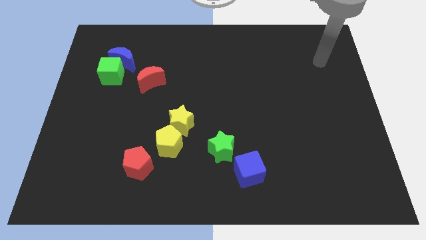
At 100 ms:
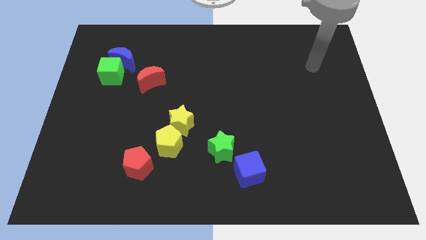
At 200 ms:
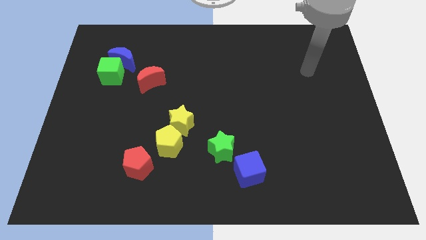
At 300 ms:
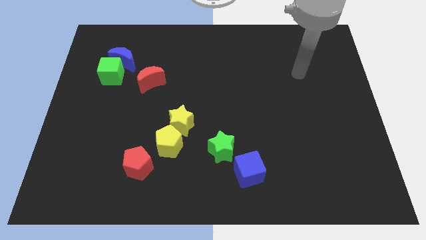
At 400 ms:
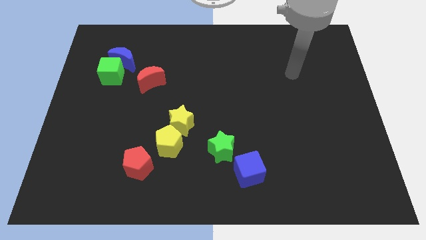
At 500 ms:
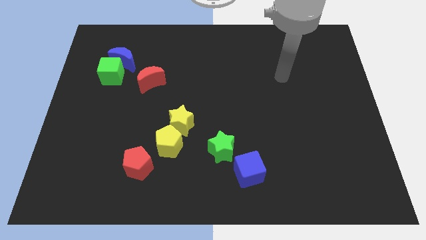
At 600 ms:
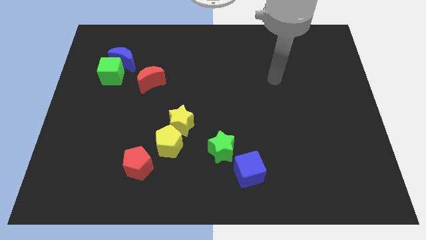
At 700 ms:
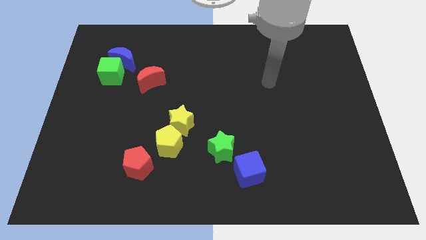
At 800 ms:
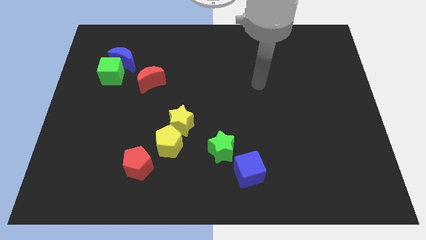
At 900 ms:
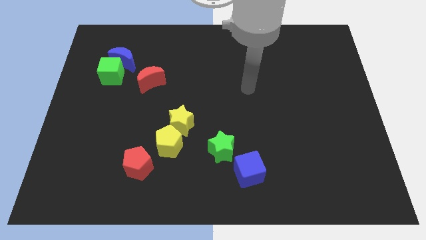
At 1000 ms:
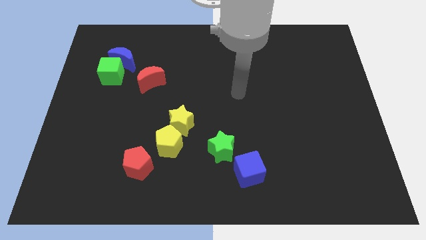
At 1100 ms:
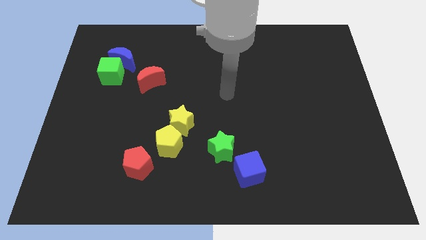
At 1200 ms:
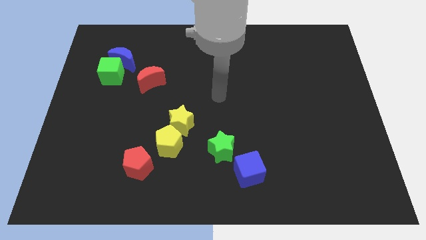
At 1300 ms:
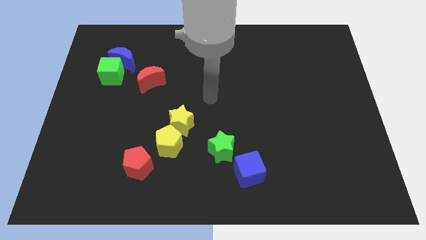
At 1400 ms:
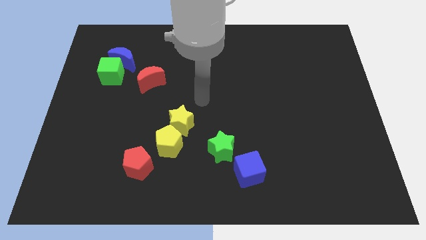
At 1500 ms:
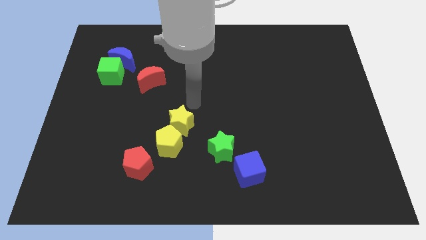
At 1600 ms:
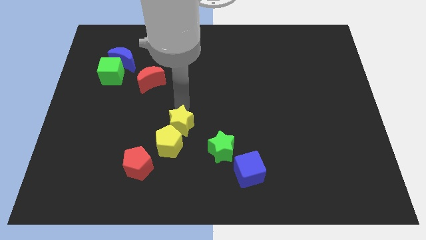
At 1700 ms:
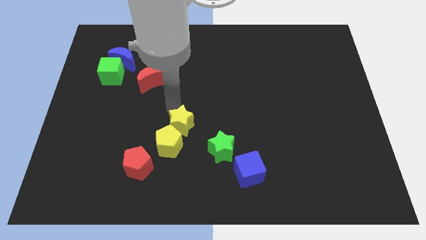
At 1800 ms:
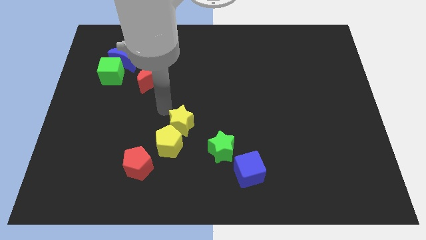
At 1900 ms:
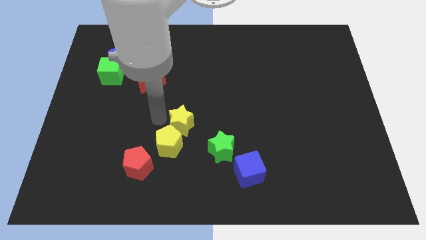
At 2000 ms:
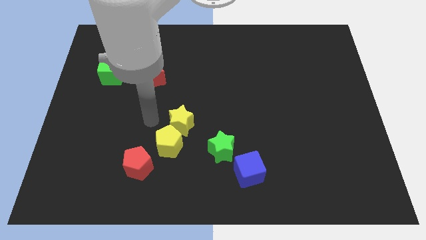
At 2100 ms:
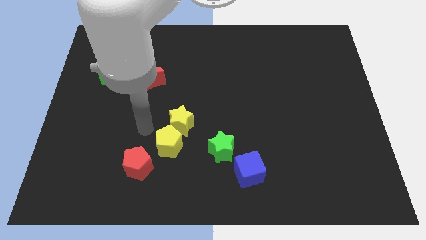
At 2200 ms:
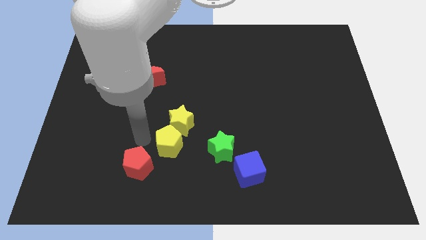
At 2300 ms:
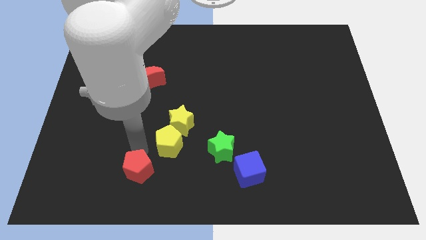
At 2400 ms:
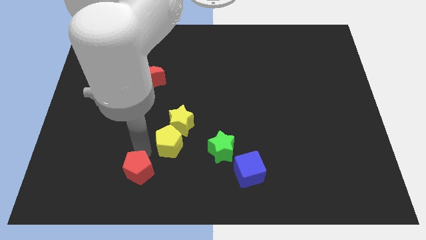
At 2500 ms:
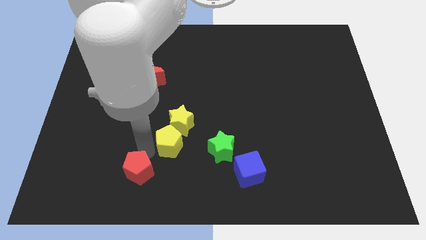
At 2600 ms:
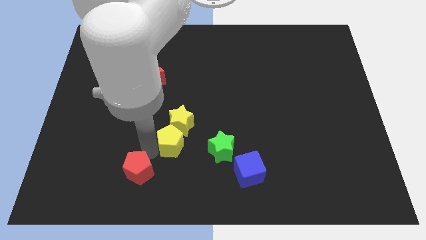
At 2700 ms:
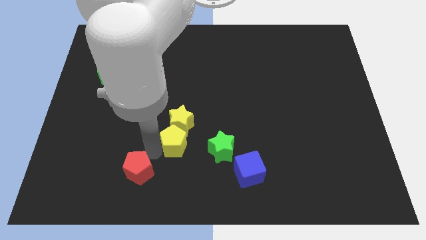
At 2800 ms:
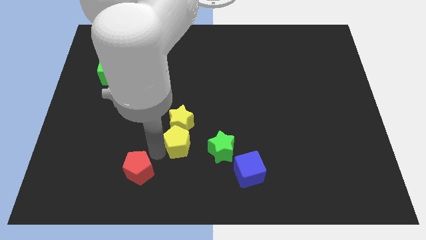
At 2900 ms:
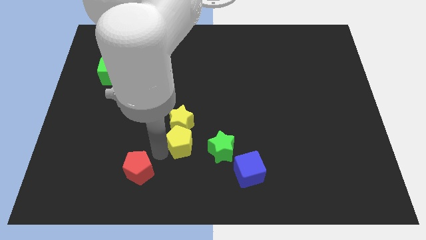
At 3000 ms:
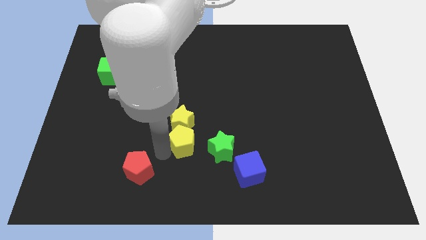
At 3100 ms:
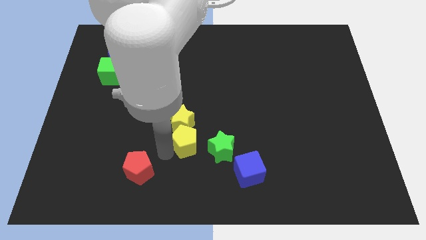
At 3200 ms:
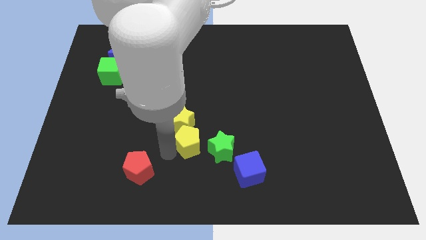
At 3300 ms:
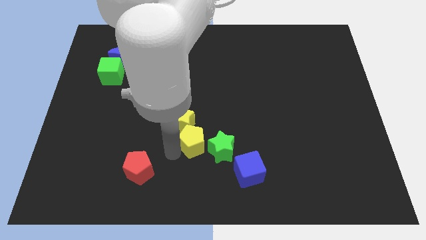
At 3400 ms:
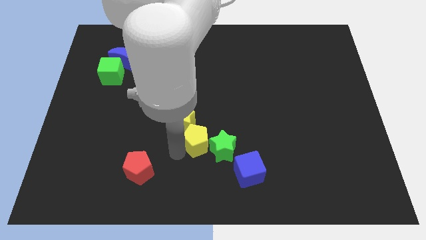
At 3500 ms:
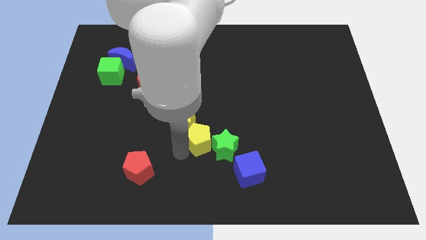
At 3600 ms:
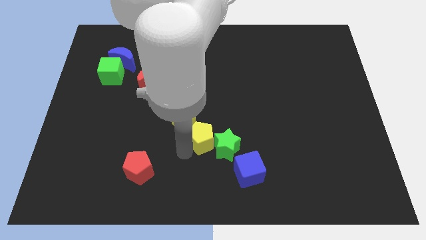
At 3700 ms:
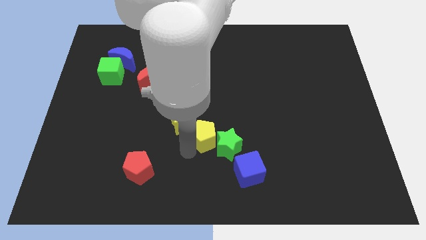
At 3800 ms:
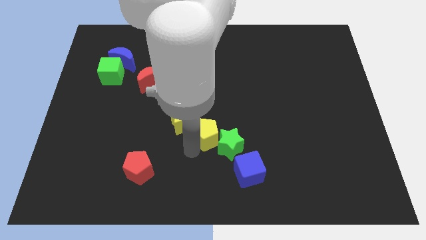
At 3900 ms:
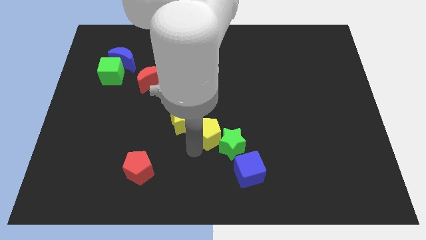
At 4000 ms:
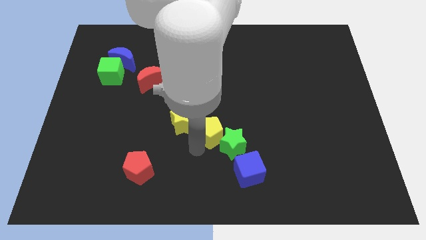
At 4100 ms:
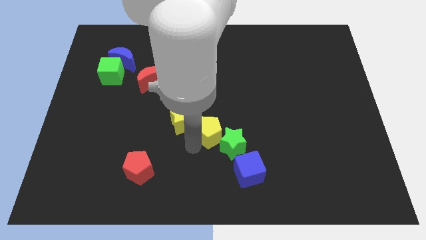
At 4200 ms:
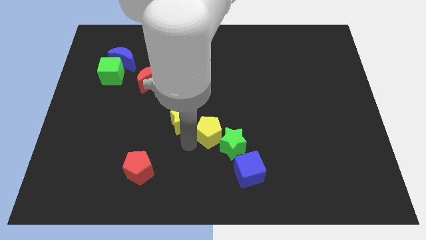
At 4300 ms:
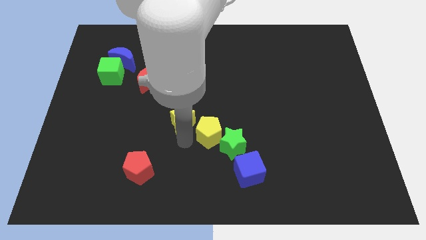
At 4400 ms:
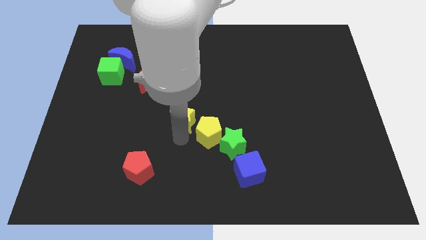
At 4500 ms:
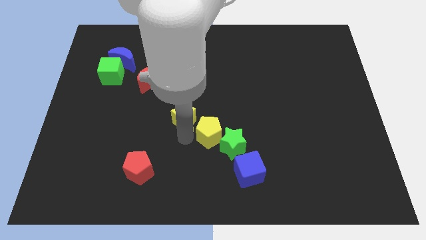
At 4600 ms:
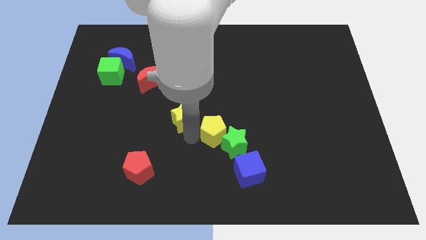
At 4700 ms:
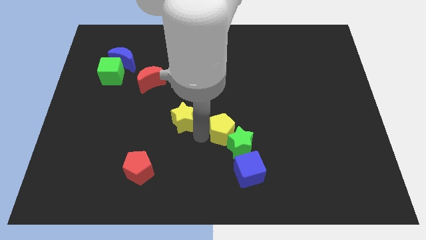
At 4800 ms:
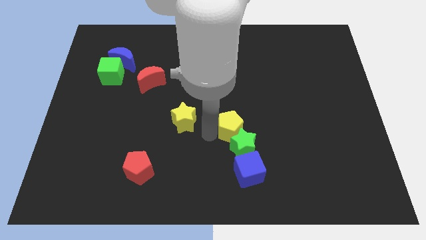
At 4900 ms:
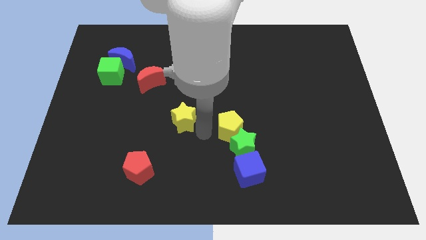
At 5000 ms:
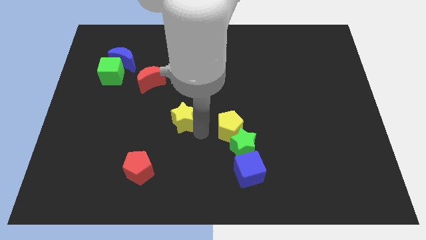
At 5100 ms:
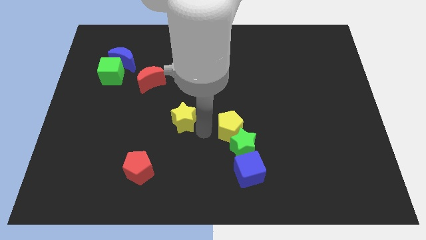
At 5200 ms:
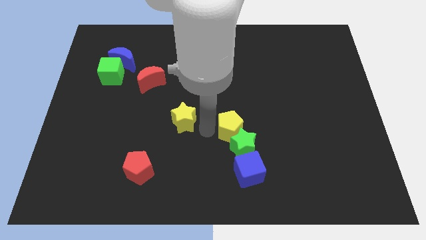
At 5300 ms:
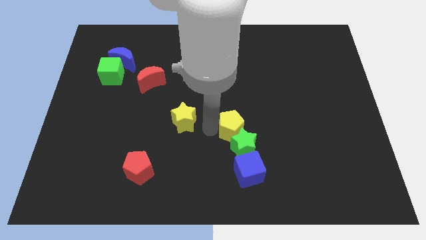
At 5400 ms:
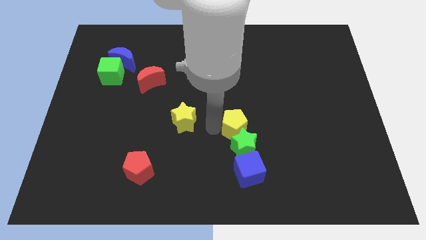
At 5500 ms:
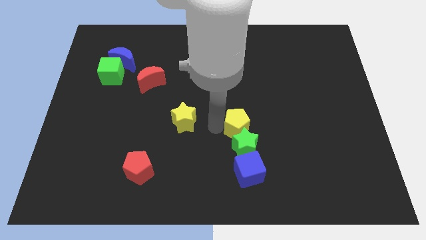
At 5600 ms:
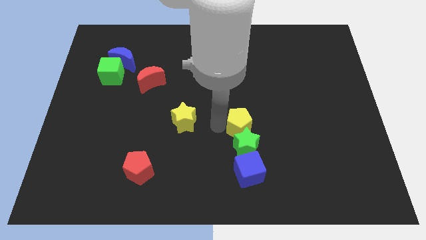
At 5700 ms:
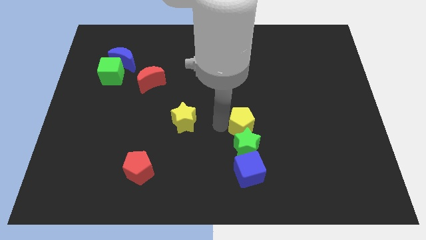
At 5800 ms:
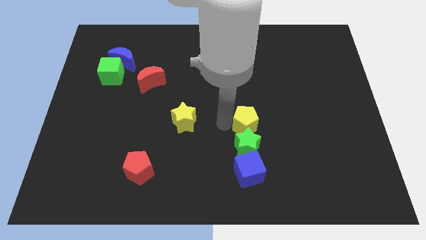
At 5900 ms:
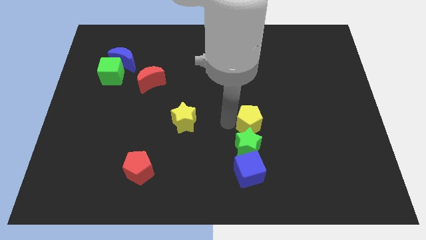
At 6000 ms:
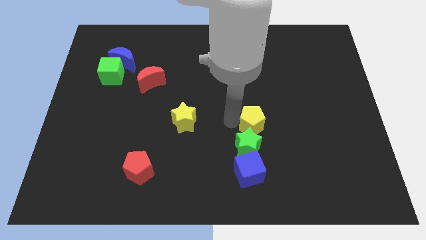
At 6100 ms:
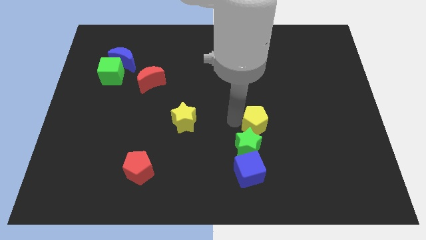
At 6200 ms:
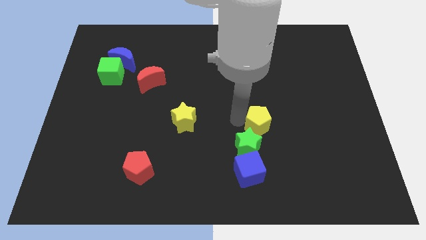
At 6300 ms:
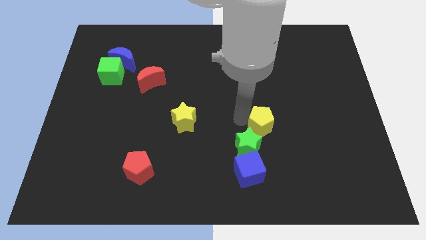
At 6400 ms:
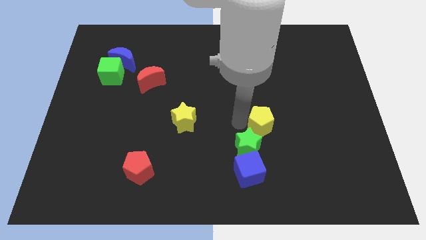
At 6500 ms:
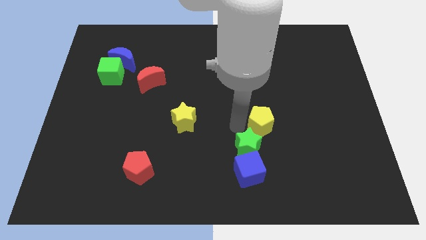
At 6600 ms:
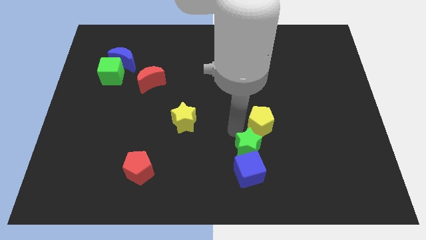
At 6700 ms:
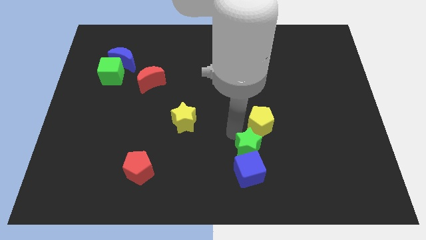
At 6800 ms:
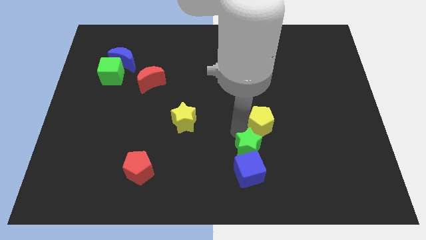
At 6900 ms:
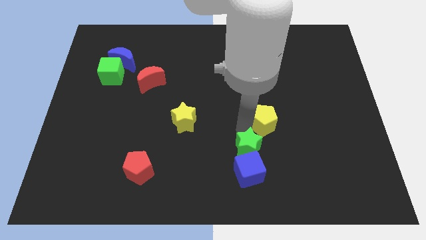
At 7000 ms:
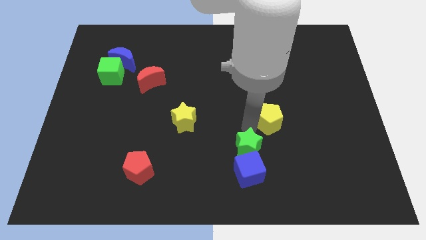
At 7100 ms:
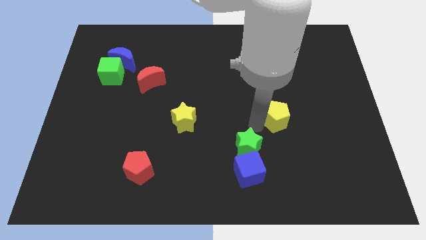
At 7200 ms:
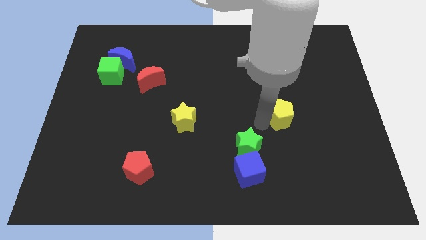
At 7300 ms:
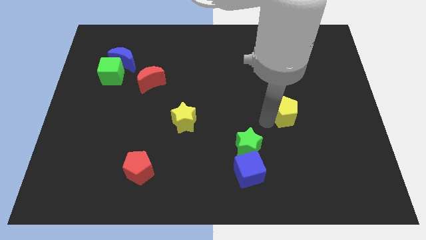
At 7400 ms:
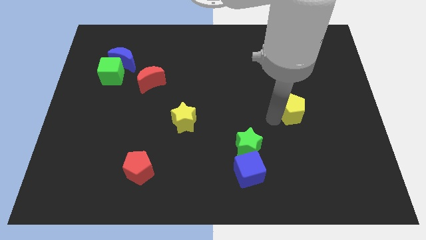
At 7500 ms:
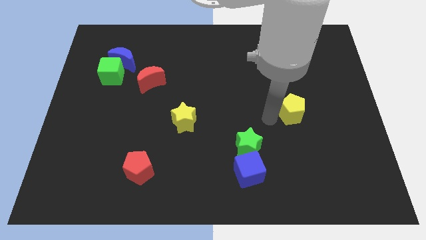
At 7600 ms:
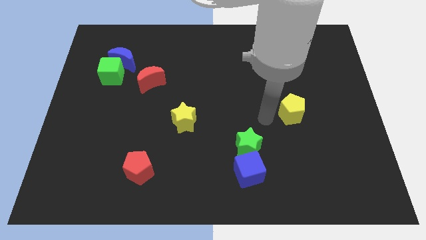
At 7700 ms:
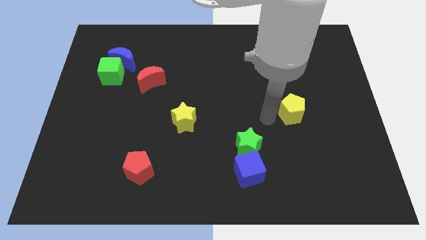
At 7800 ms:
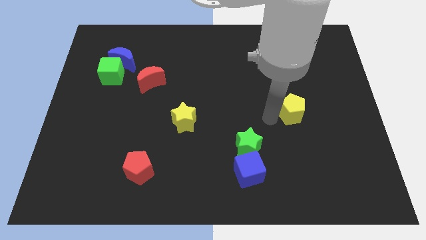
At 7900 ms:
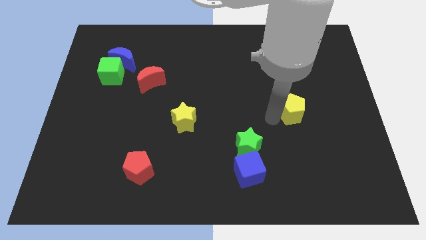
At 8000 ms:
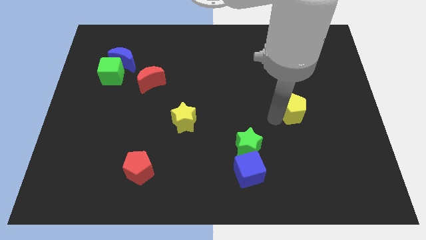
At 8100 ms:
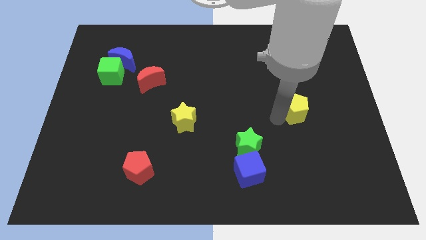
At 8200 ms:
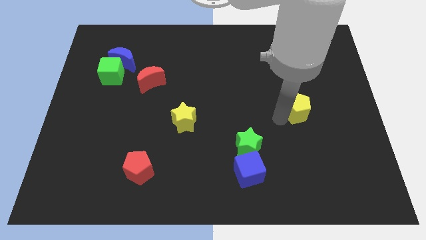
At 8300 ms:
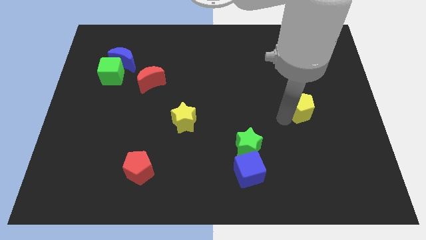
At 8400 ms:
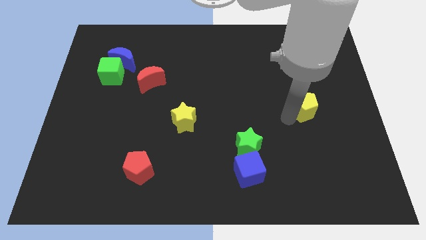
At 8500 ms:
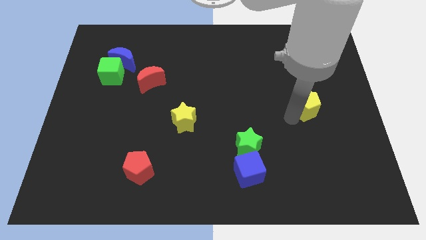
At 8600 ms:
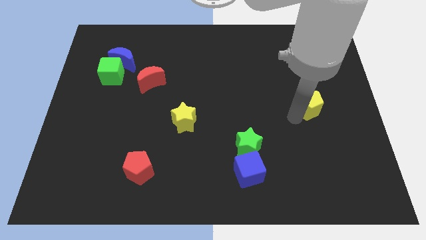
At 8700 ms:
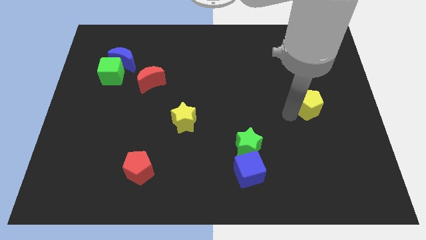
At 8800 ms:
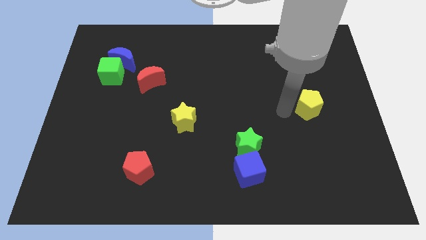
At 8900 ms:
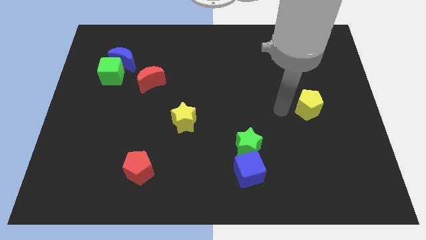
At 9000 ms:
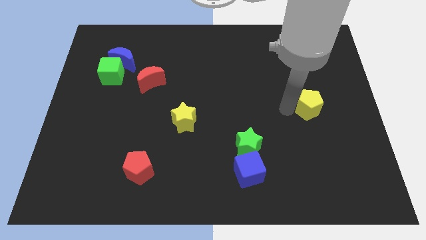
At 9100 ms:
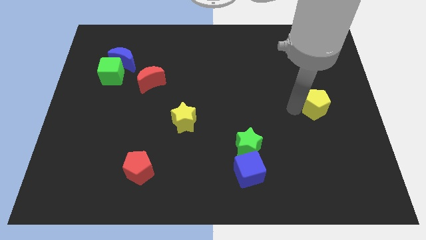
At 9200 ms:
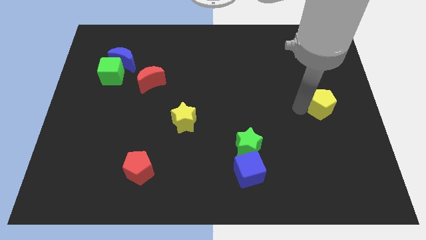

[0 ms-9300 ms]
put the yellow pentagon to the right side of the board
